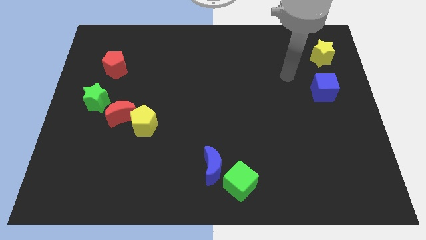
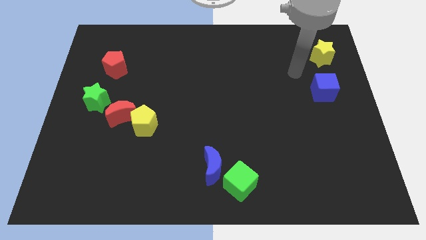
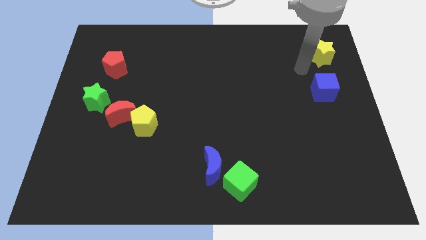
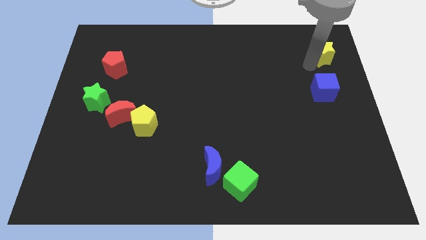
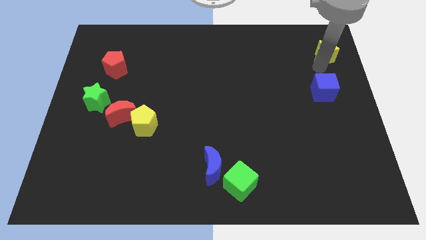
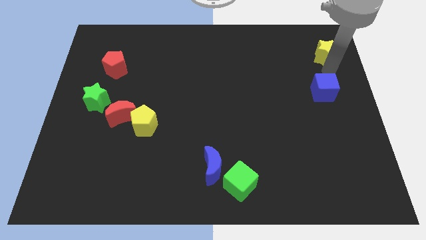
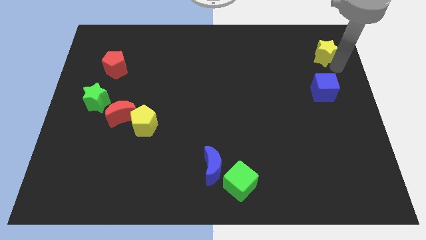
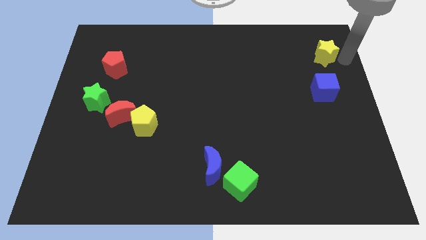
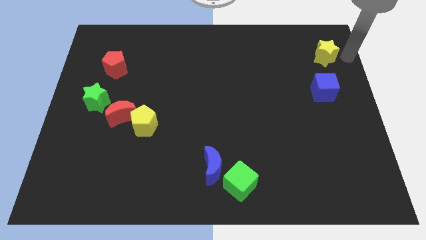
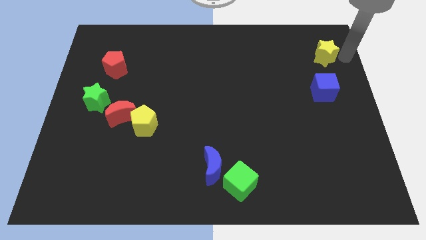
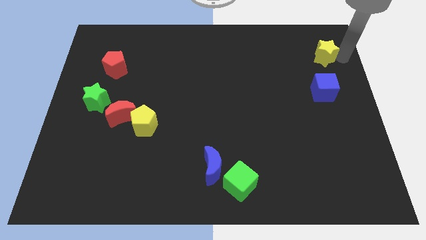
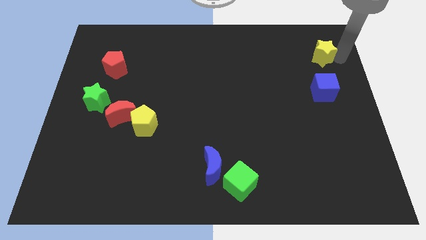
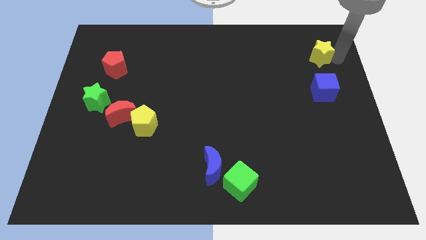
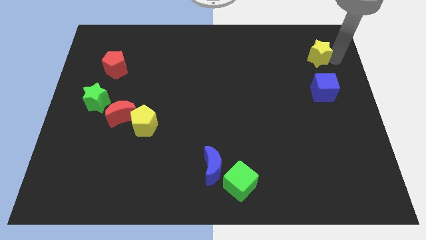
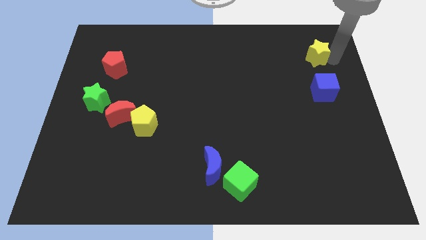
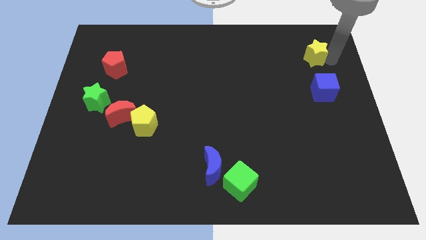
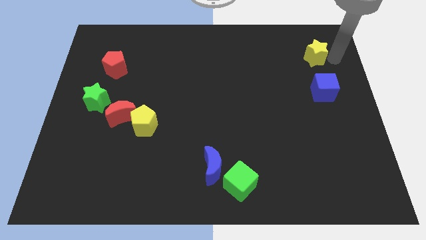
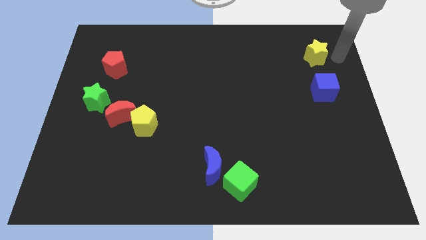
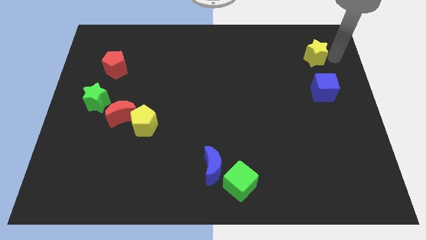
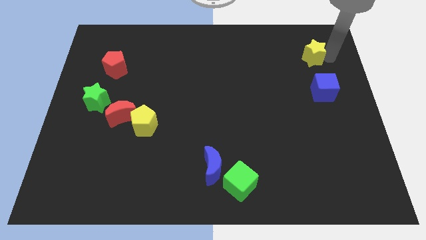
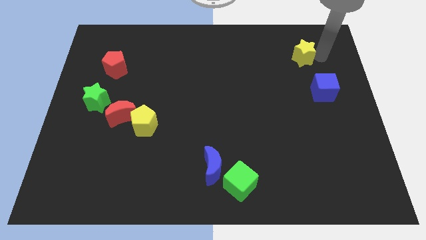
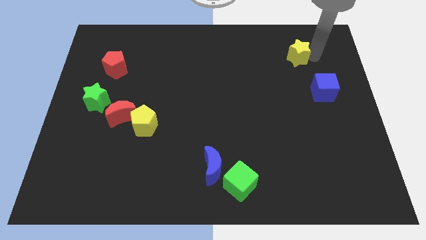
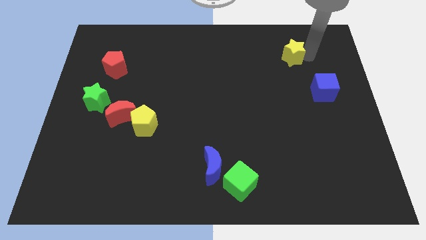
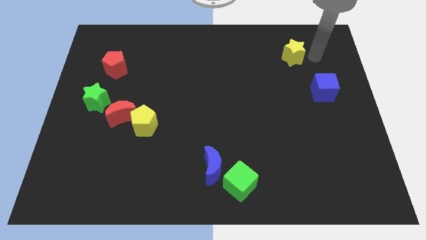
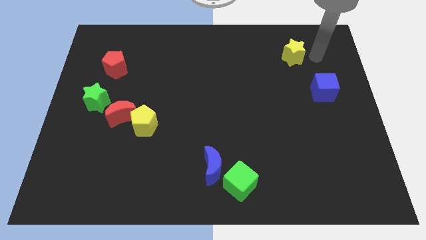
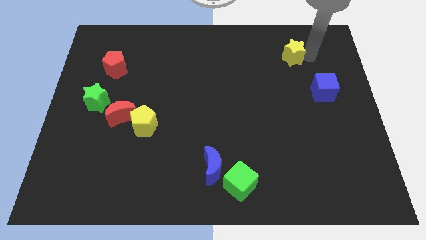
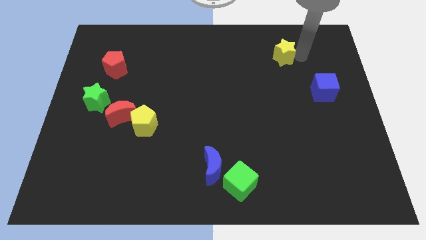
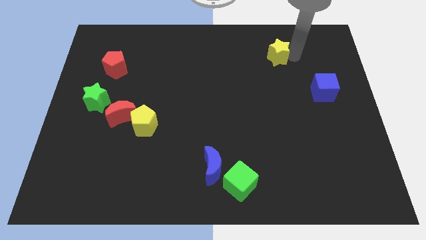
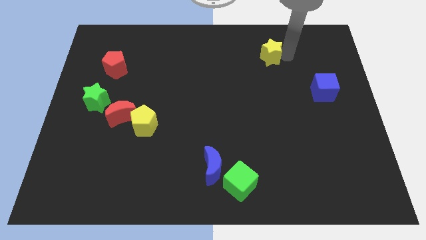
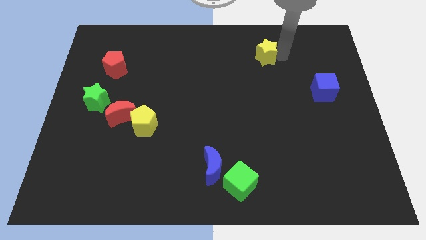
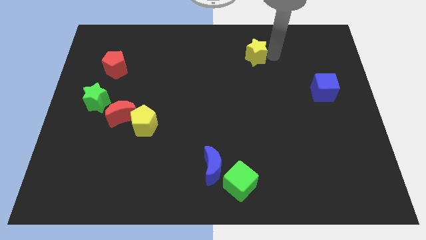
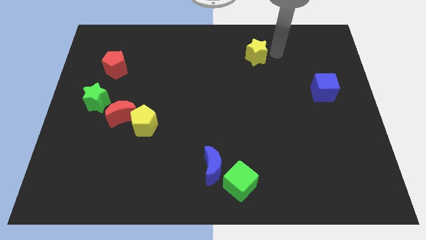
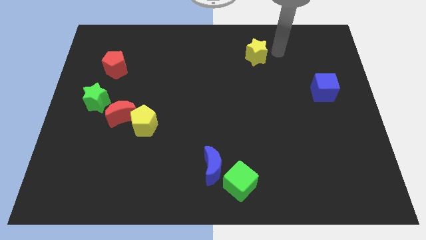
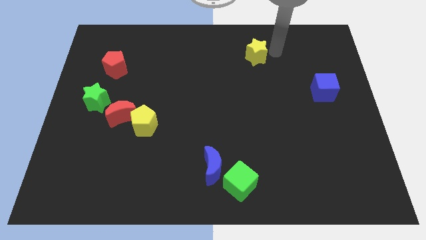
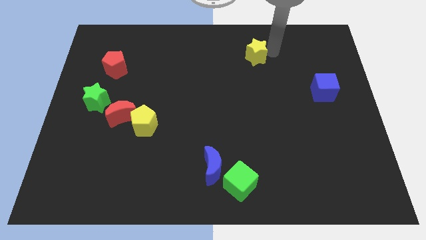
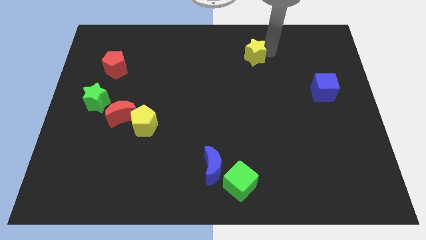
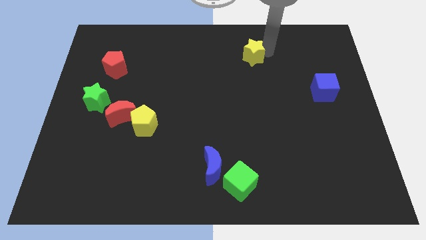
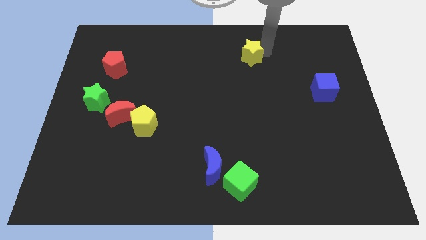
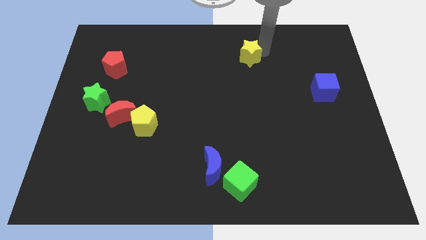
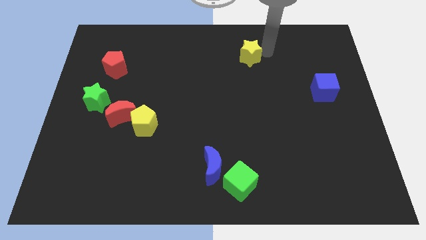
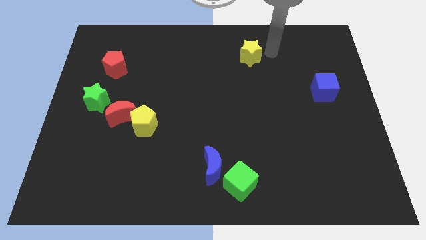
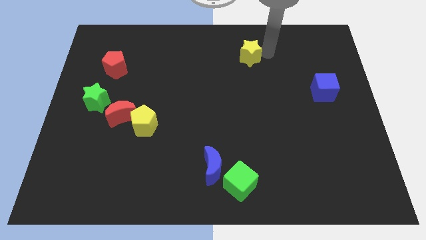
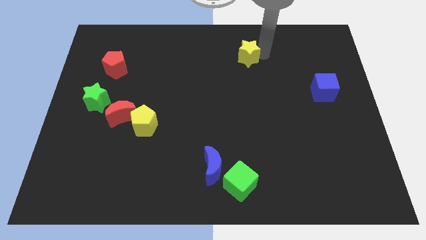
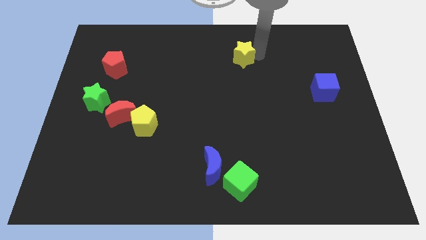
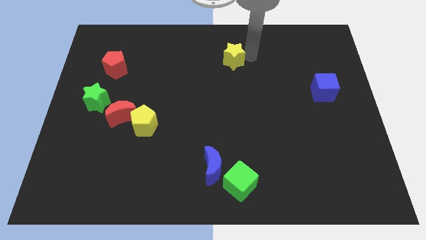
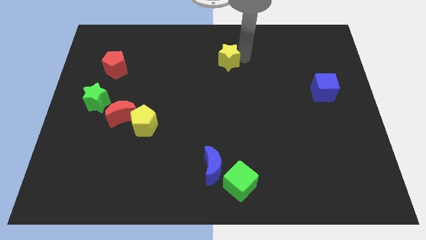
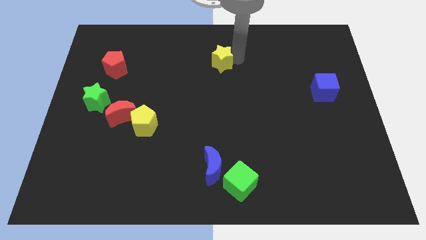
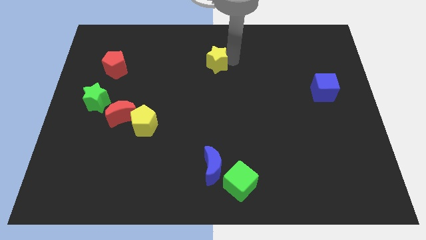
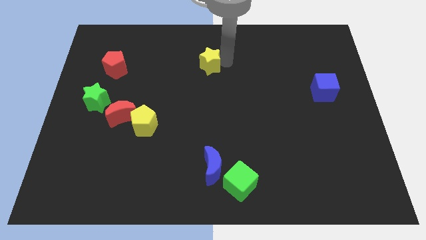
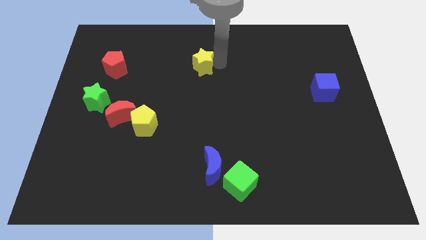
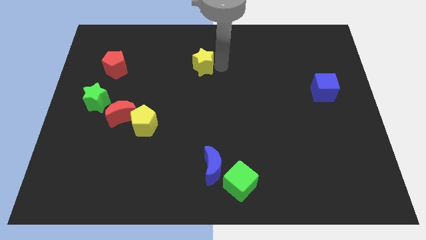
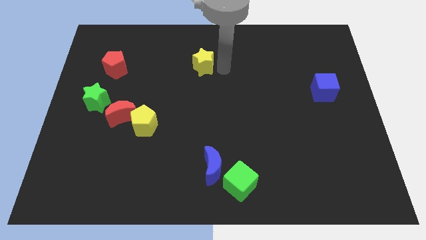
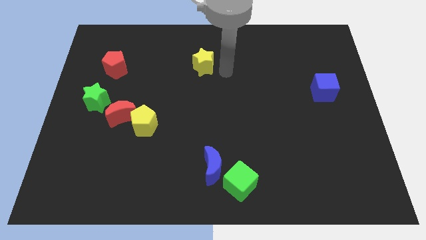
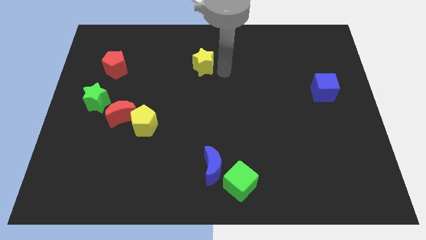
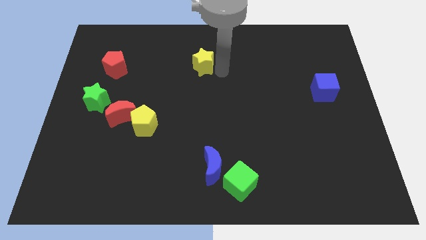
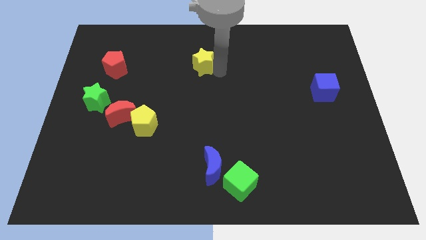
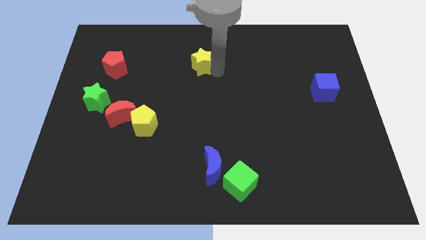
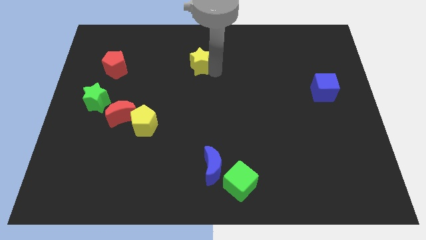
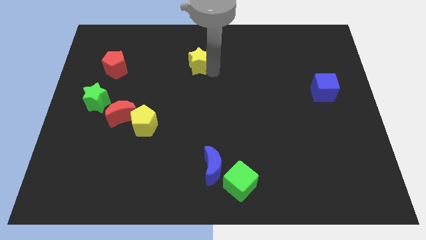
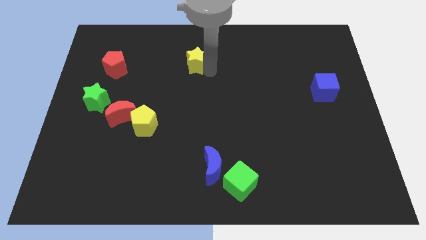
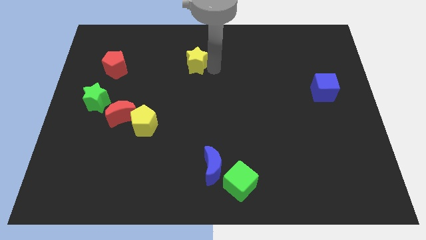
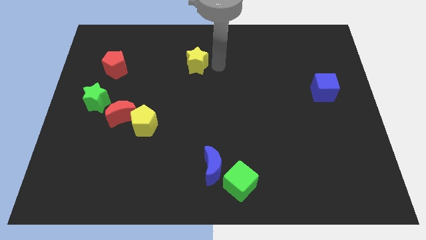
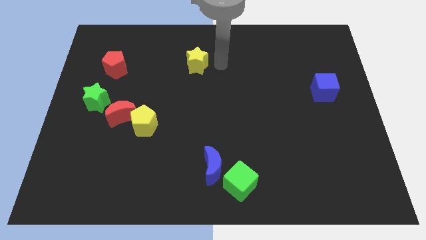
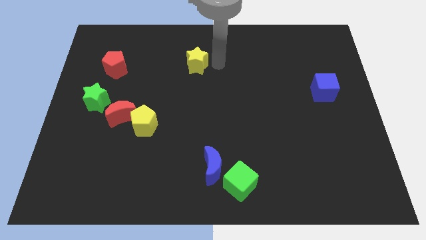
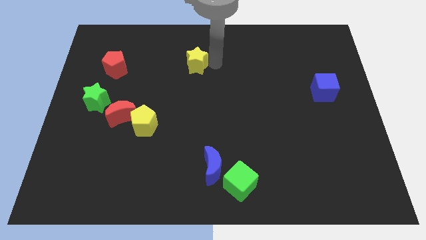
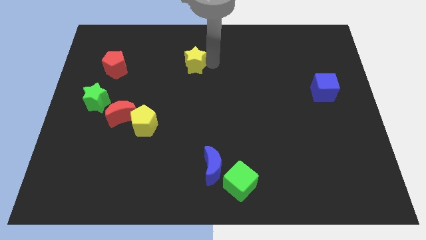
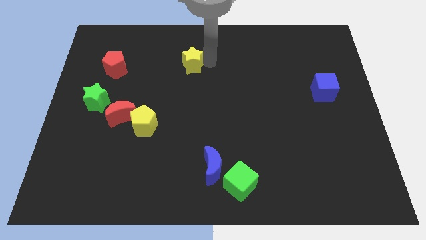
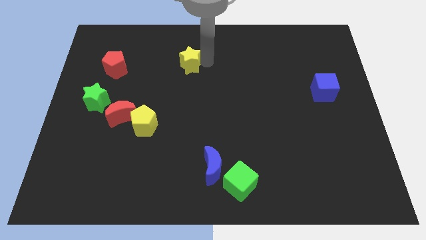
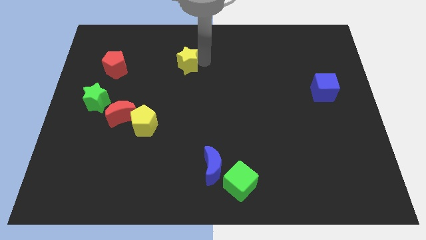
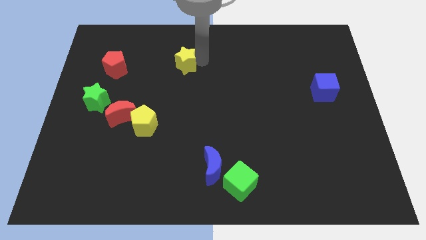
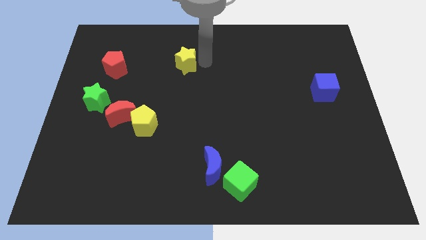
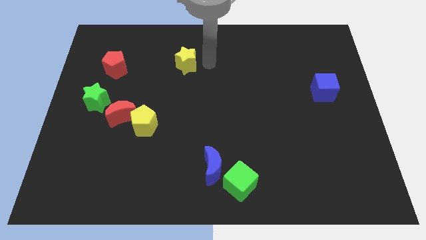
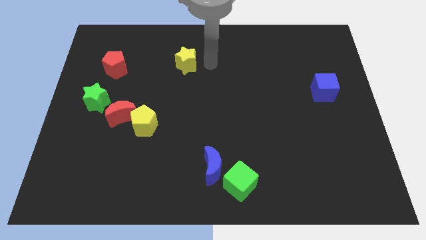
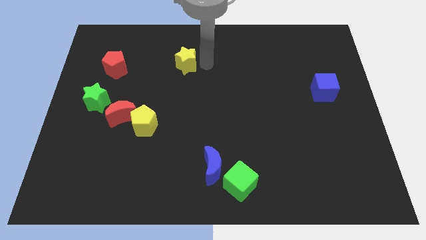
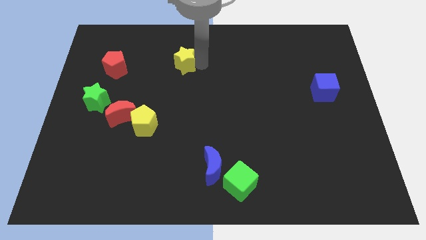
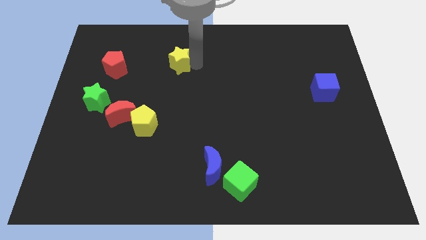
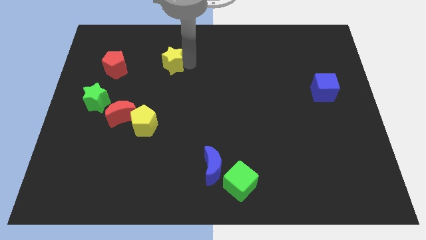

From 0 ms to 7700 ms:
move the yellow star right of the red pentagon

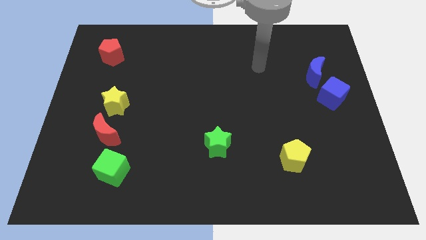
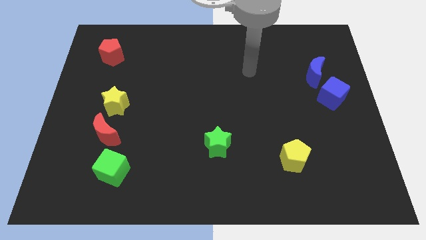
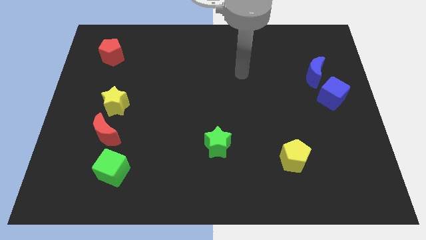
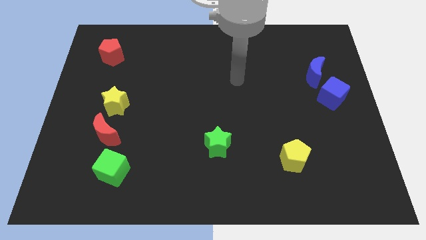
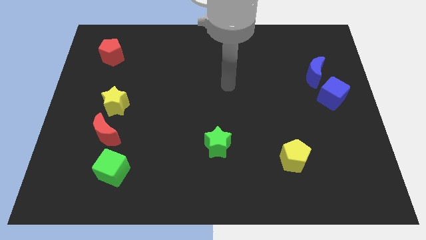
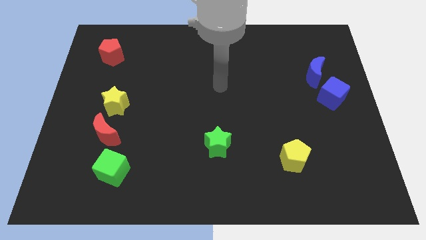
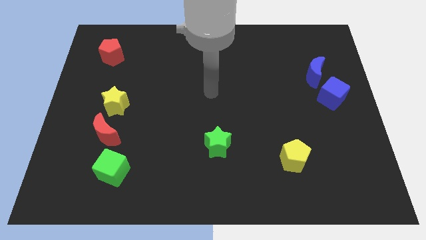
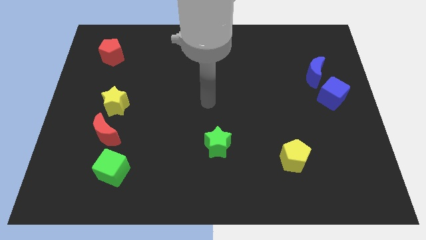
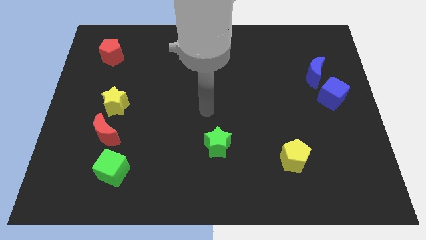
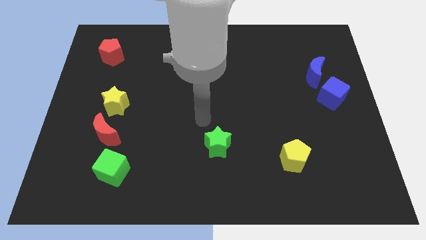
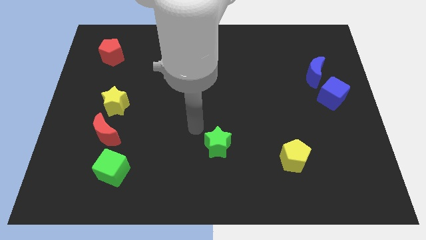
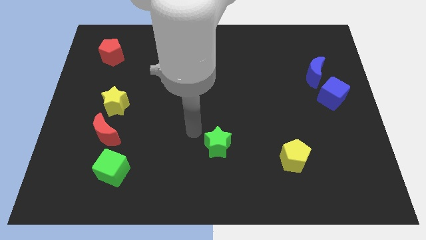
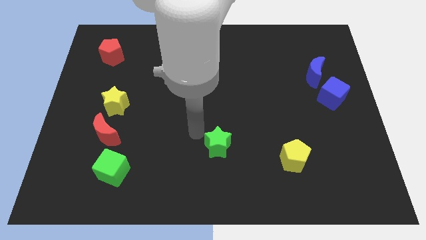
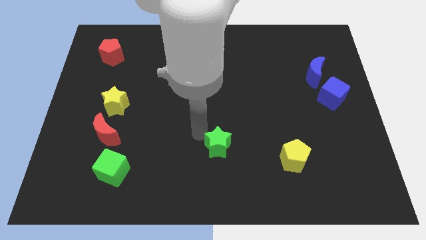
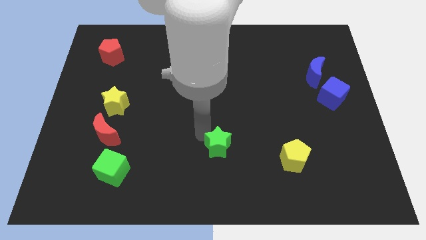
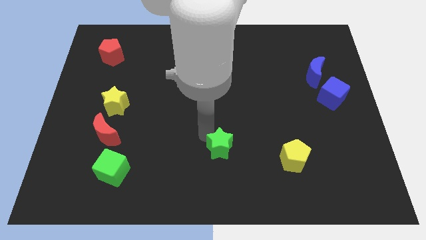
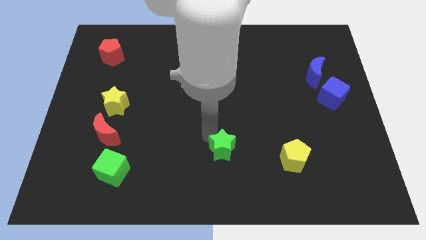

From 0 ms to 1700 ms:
put the green star to the left side of the yellow pentagon
